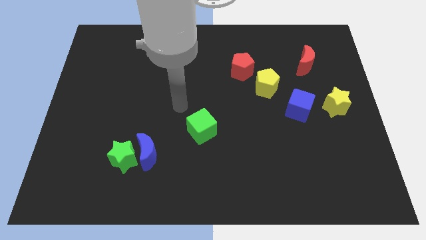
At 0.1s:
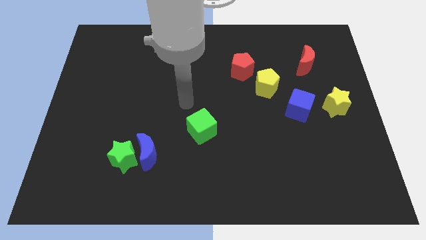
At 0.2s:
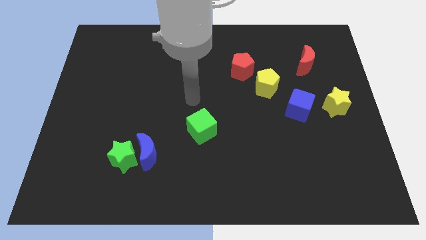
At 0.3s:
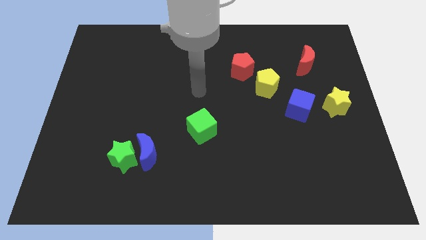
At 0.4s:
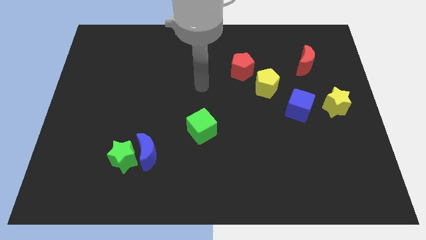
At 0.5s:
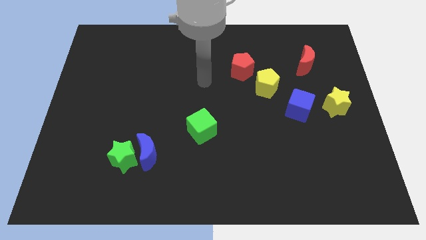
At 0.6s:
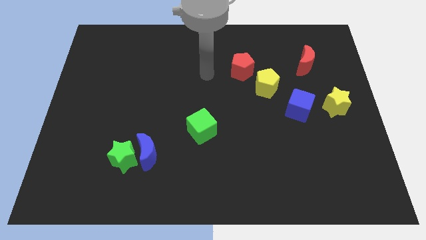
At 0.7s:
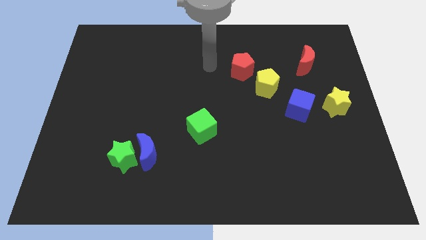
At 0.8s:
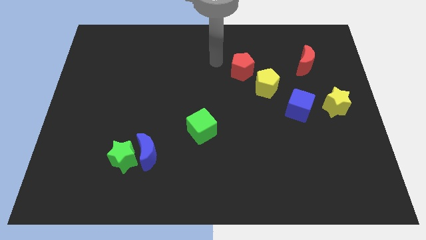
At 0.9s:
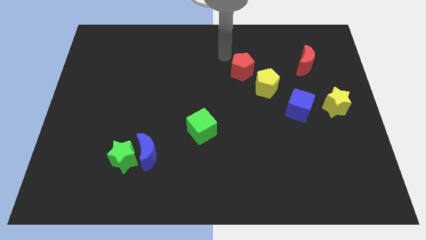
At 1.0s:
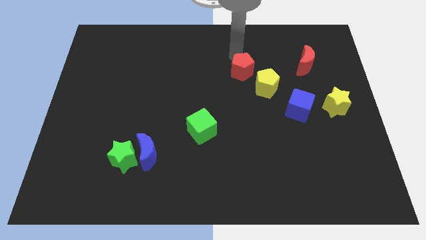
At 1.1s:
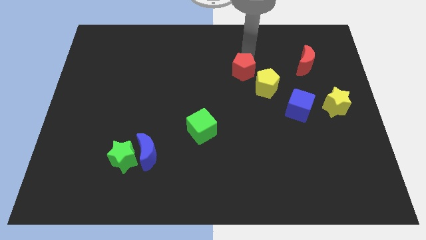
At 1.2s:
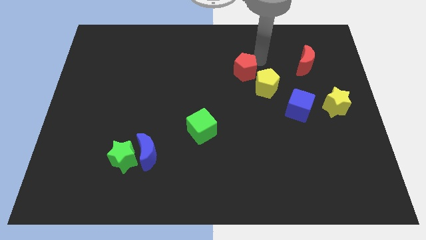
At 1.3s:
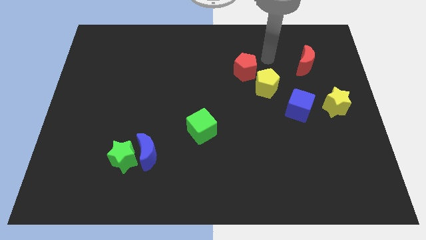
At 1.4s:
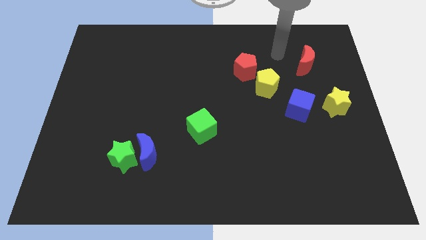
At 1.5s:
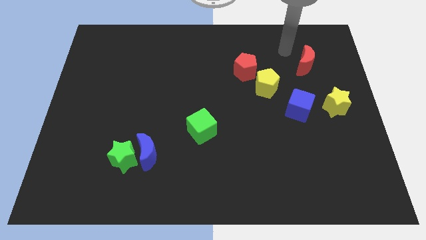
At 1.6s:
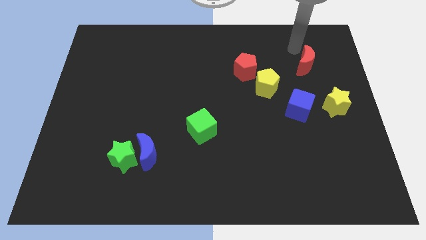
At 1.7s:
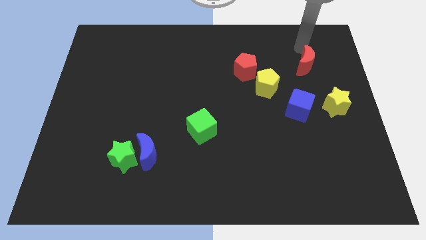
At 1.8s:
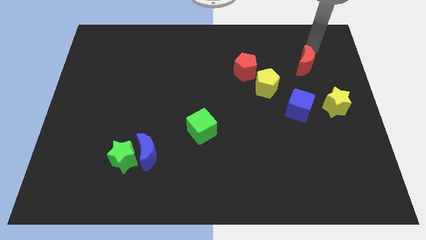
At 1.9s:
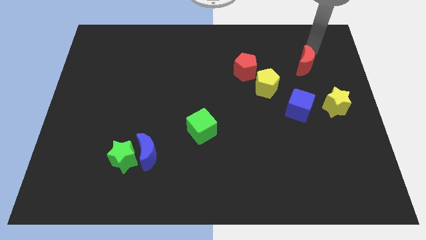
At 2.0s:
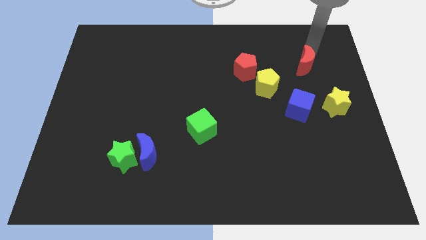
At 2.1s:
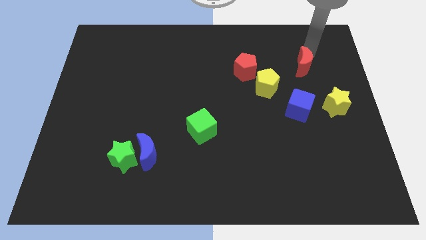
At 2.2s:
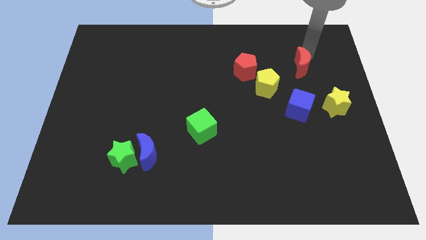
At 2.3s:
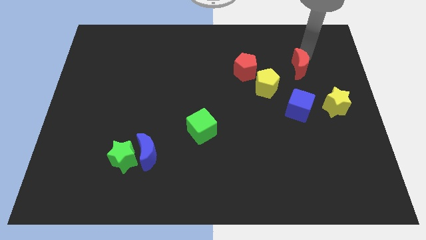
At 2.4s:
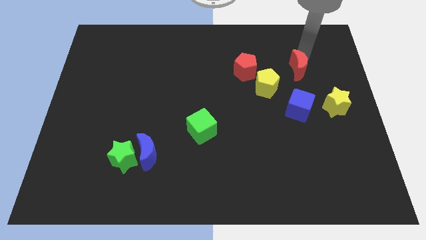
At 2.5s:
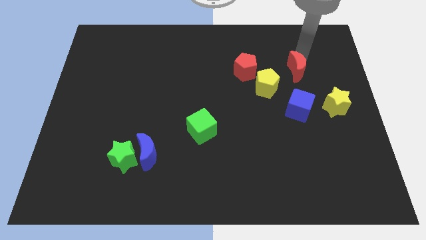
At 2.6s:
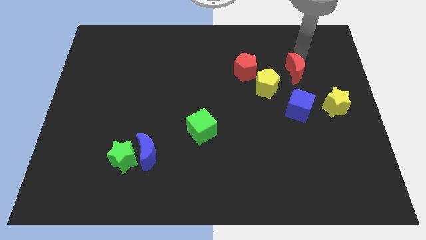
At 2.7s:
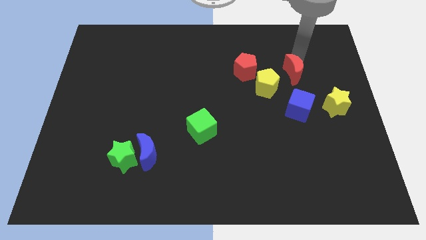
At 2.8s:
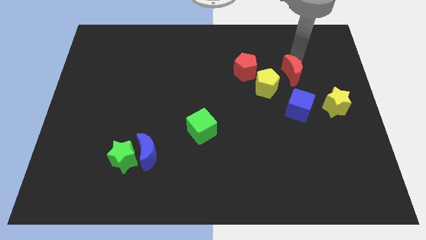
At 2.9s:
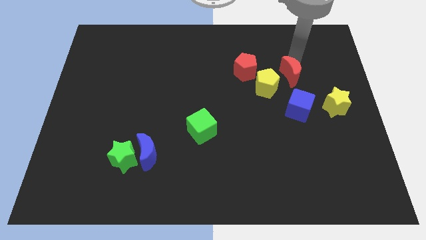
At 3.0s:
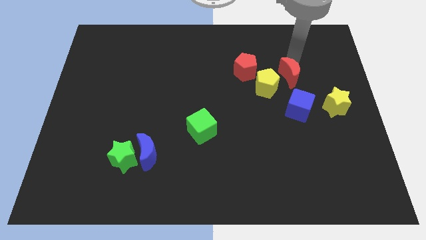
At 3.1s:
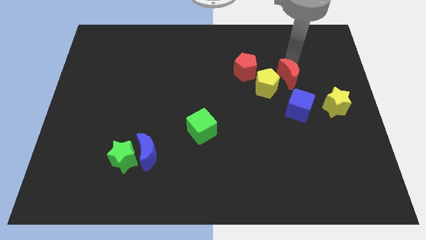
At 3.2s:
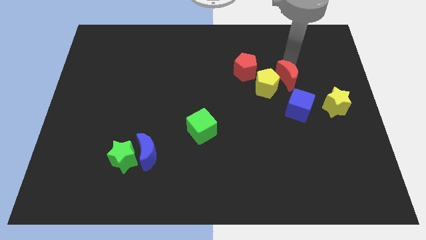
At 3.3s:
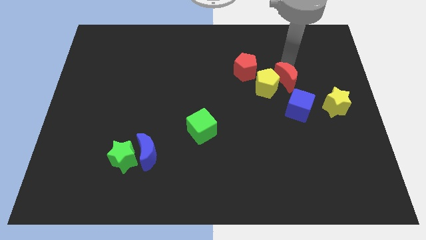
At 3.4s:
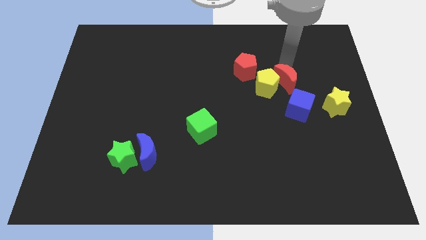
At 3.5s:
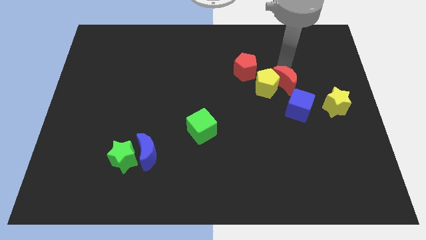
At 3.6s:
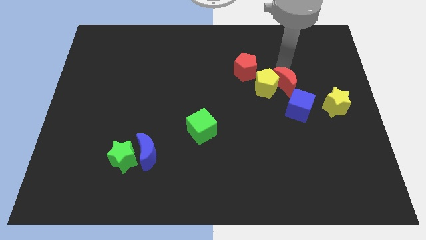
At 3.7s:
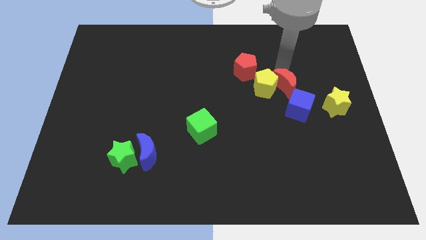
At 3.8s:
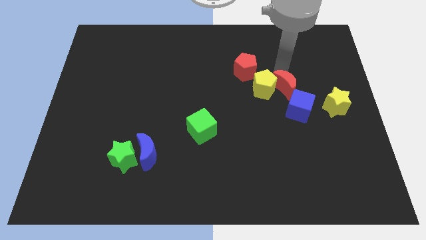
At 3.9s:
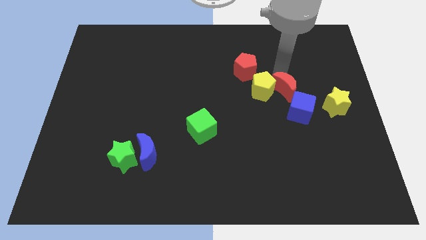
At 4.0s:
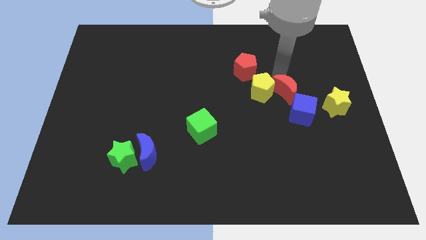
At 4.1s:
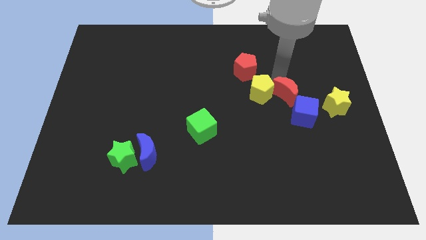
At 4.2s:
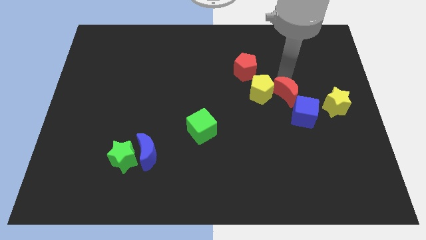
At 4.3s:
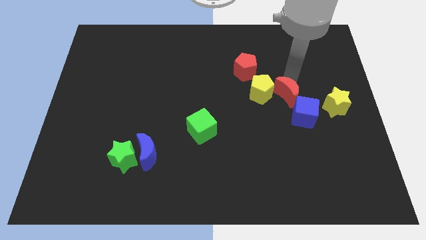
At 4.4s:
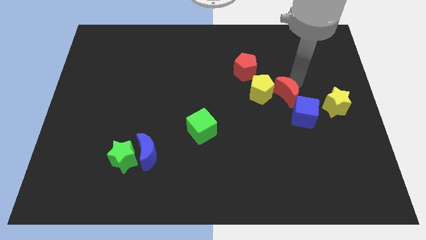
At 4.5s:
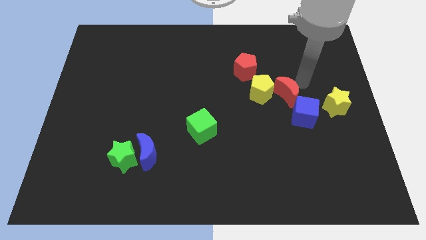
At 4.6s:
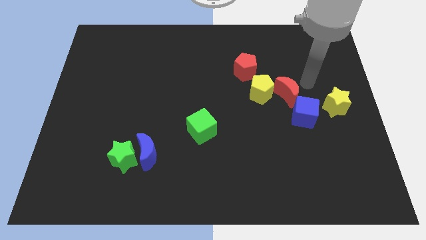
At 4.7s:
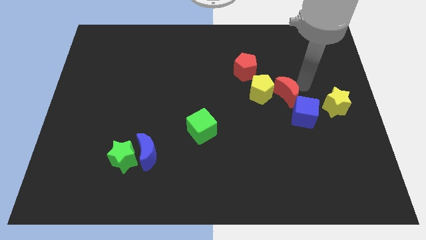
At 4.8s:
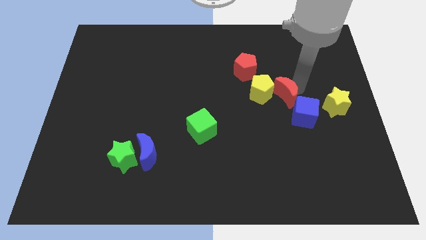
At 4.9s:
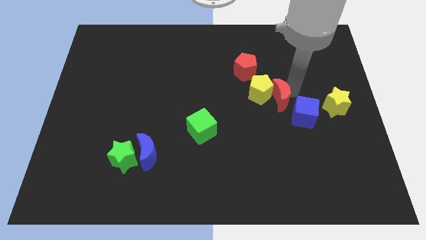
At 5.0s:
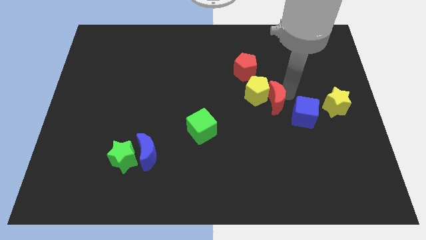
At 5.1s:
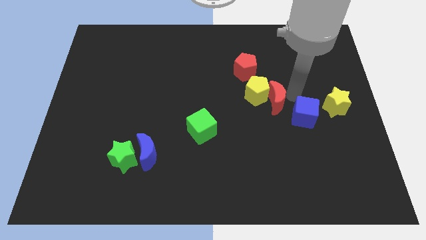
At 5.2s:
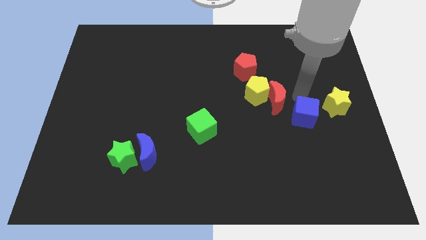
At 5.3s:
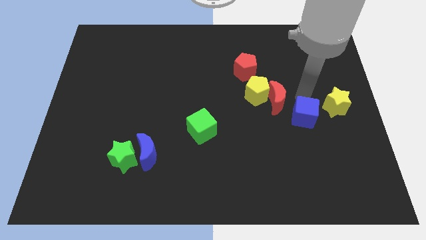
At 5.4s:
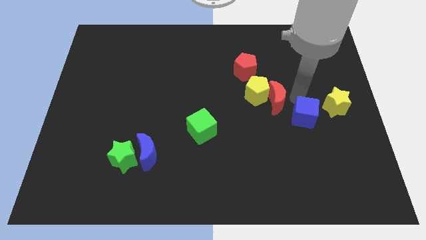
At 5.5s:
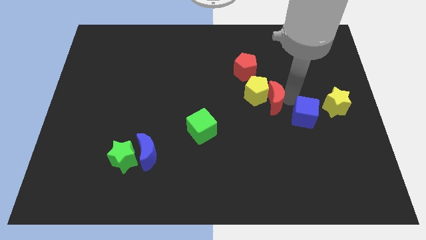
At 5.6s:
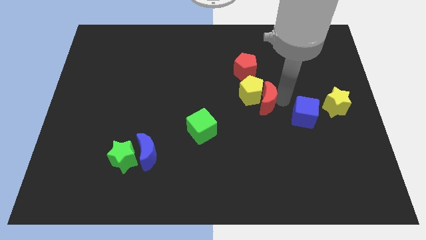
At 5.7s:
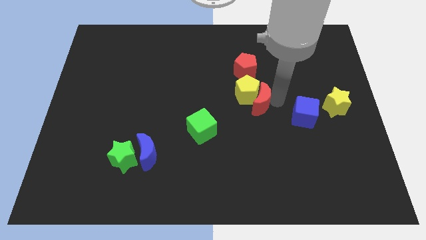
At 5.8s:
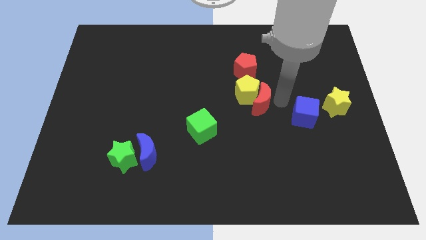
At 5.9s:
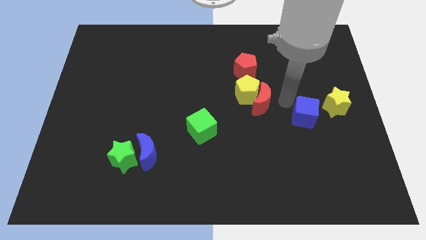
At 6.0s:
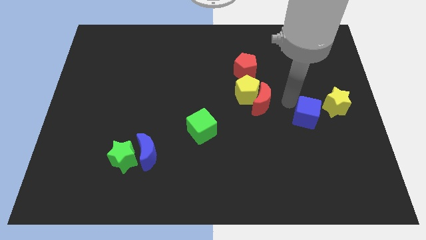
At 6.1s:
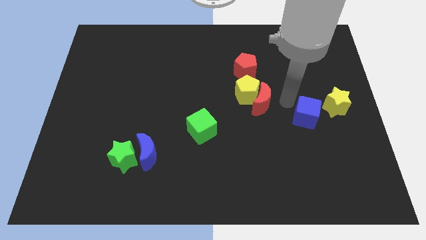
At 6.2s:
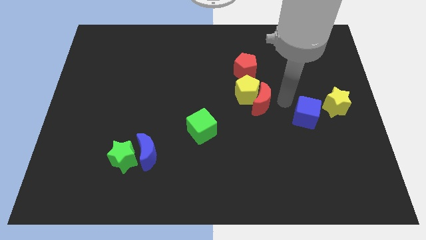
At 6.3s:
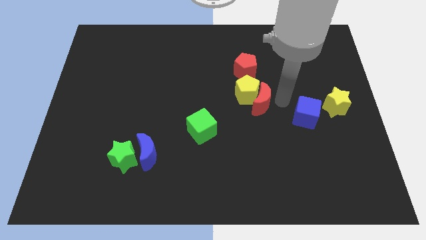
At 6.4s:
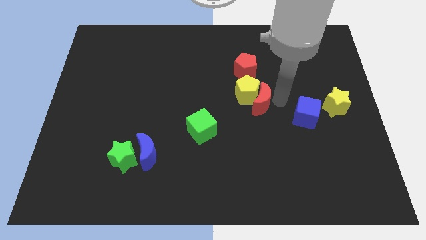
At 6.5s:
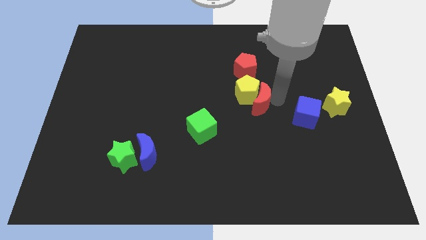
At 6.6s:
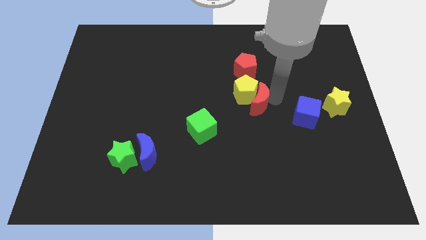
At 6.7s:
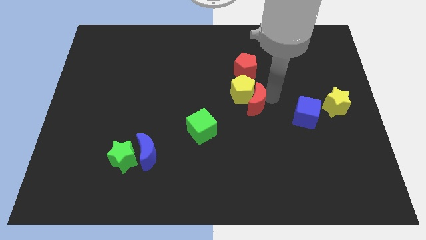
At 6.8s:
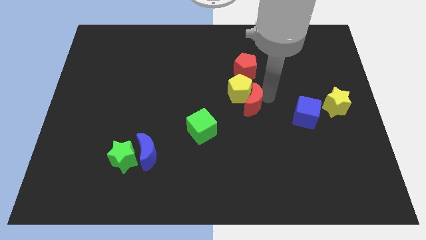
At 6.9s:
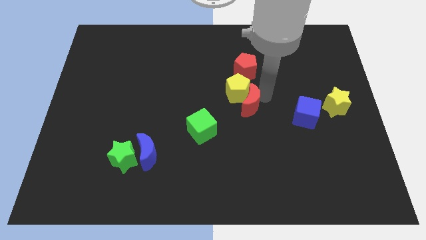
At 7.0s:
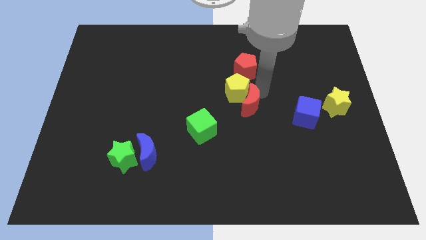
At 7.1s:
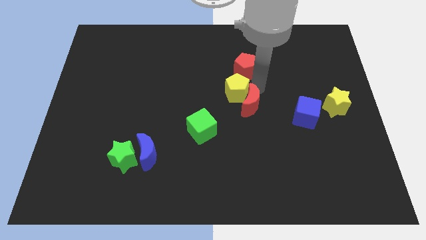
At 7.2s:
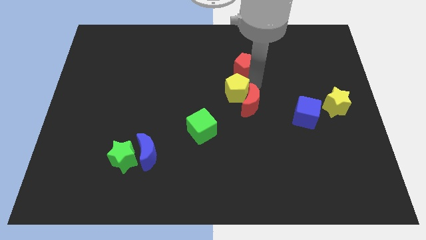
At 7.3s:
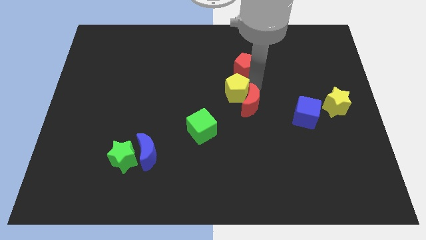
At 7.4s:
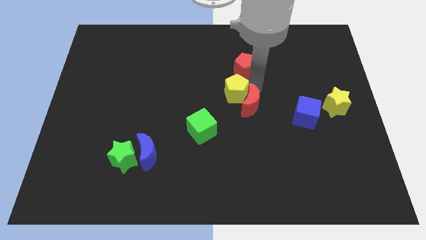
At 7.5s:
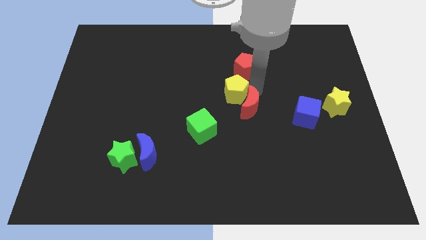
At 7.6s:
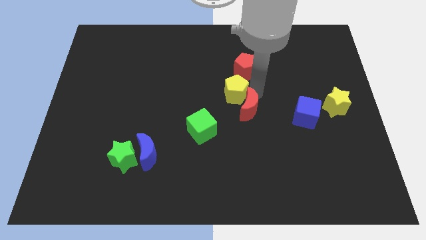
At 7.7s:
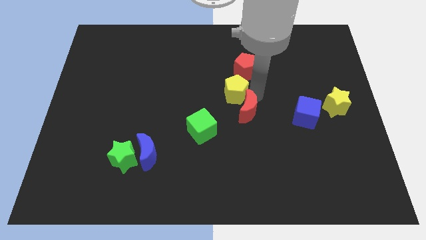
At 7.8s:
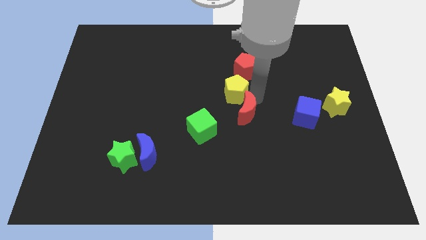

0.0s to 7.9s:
push the red moon to the right side of the green cube
